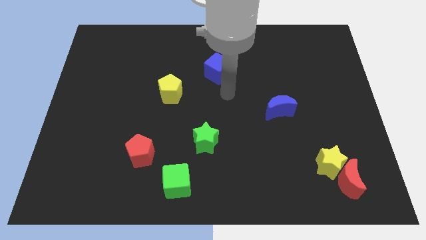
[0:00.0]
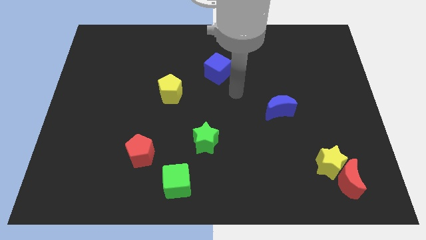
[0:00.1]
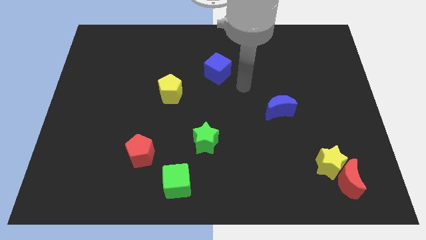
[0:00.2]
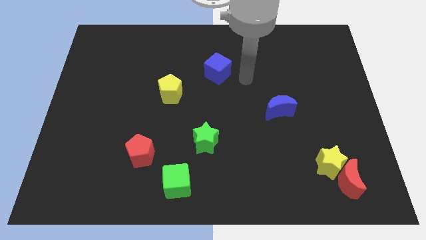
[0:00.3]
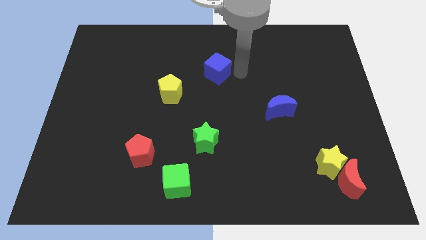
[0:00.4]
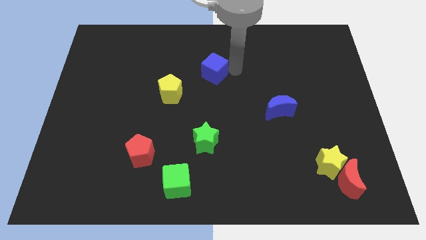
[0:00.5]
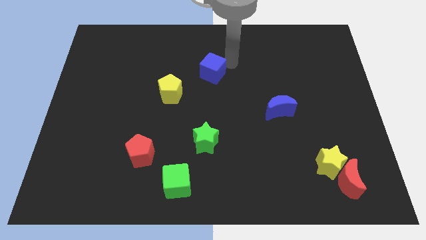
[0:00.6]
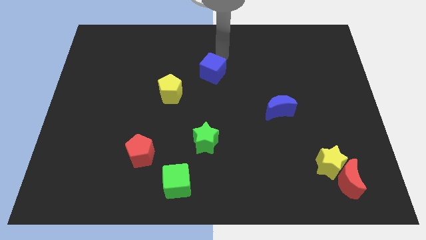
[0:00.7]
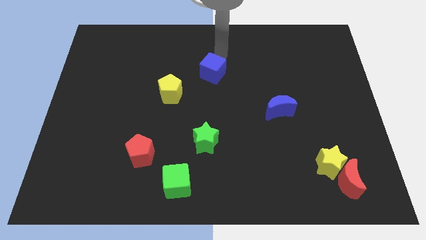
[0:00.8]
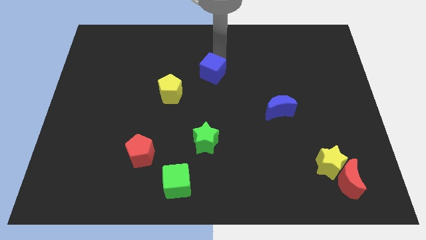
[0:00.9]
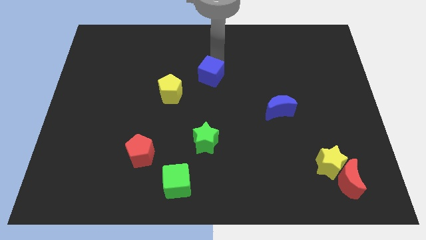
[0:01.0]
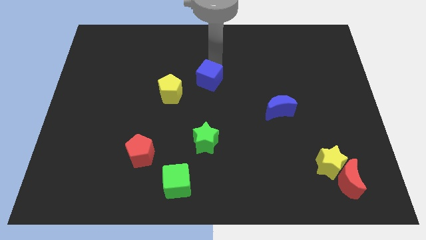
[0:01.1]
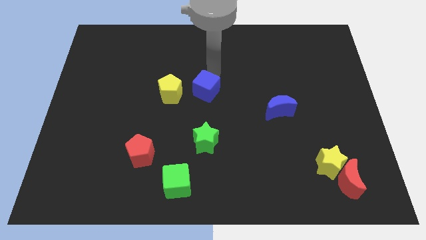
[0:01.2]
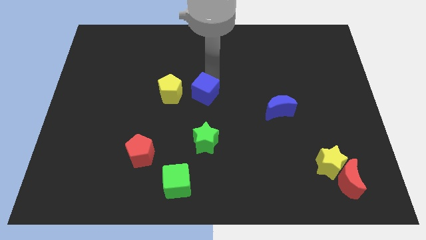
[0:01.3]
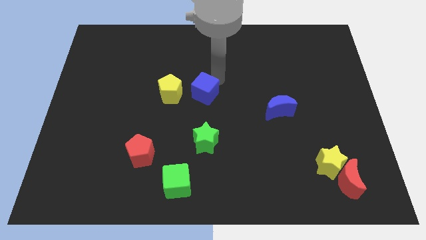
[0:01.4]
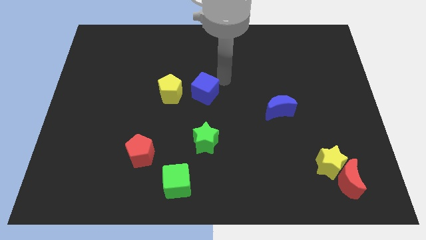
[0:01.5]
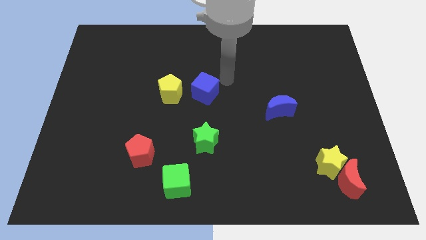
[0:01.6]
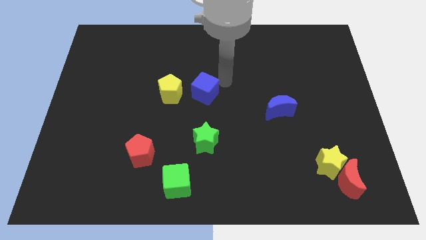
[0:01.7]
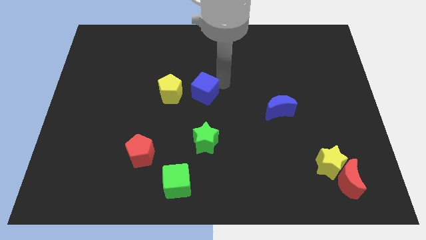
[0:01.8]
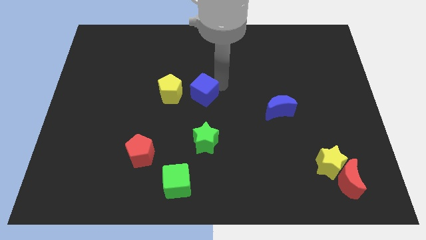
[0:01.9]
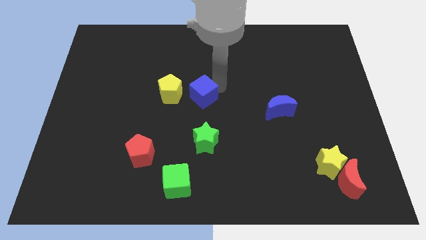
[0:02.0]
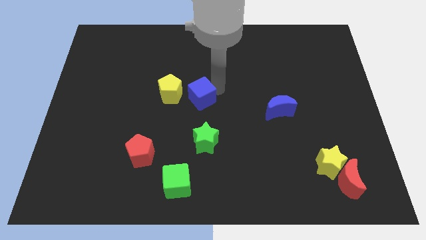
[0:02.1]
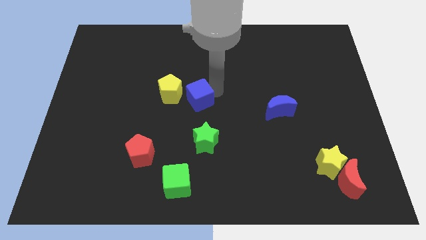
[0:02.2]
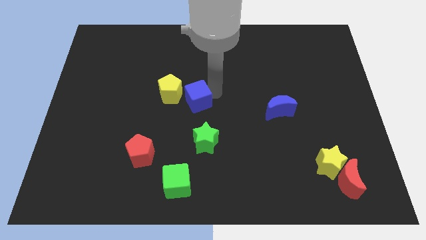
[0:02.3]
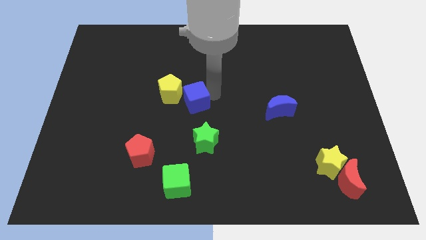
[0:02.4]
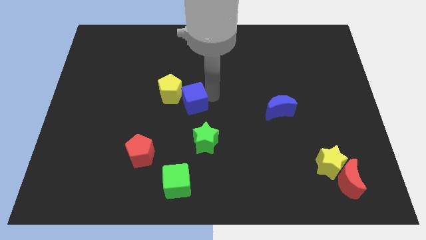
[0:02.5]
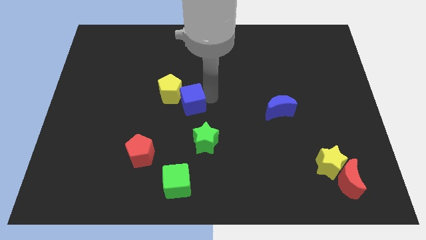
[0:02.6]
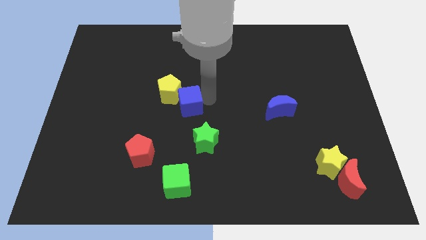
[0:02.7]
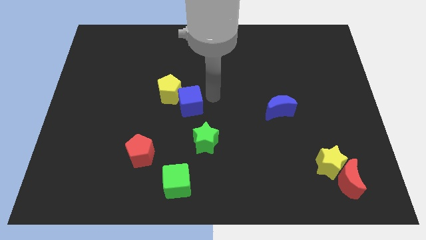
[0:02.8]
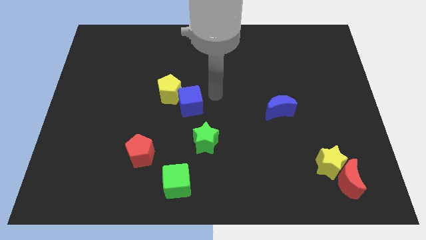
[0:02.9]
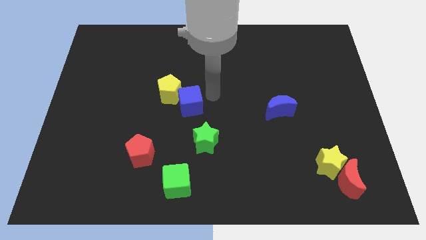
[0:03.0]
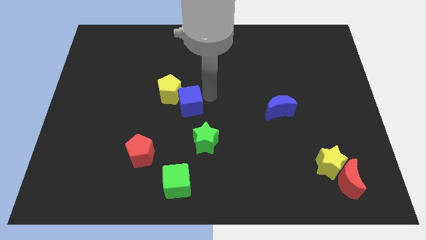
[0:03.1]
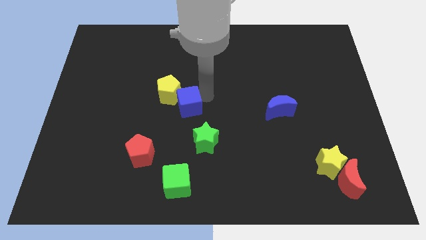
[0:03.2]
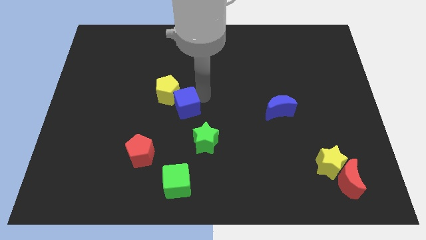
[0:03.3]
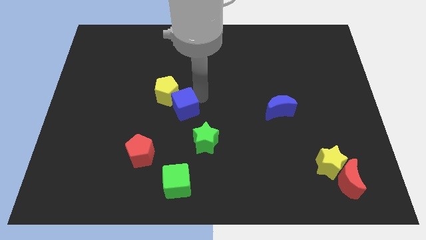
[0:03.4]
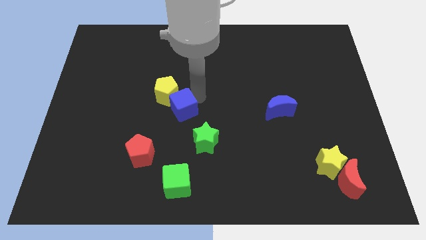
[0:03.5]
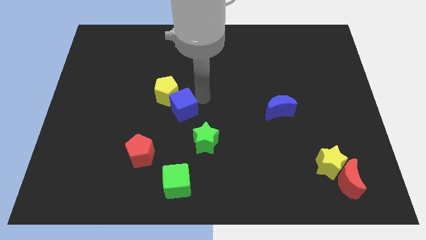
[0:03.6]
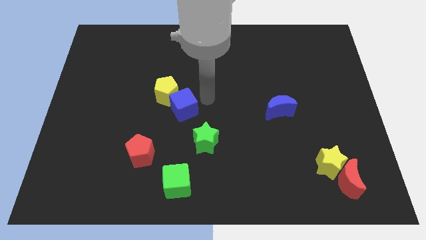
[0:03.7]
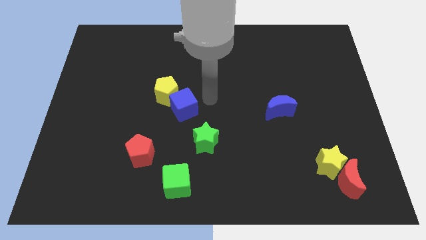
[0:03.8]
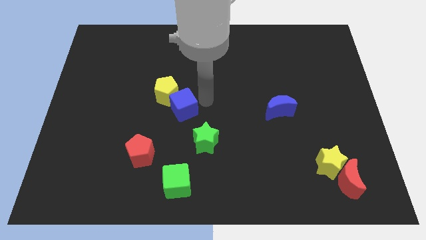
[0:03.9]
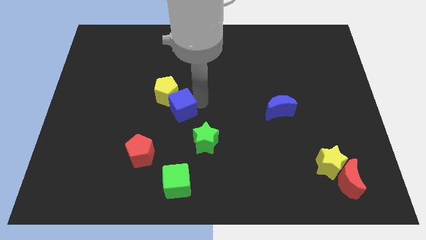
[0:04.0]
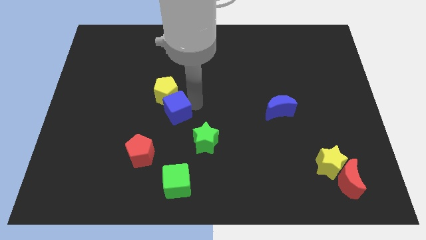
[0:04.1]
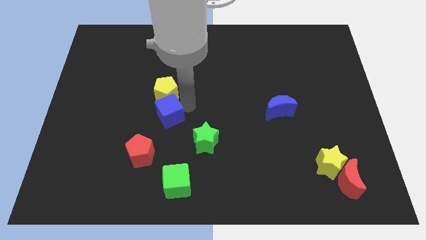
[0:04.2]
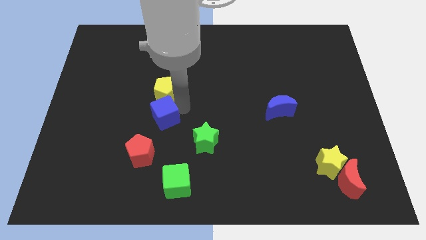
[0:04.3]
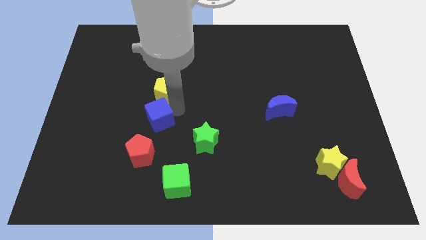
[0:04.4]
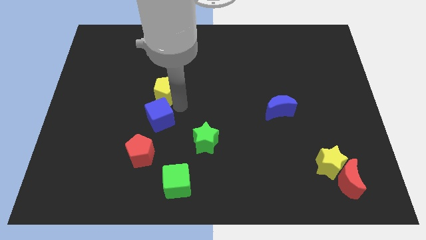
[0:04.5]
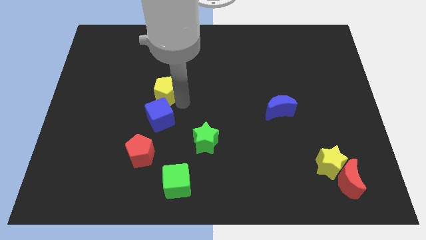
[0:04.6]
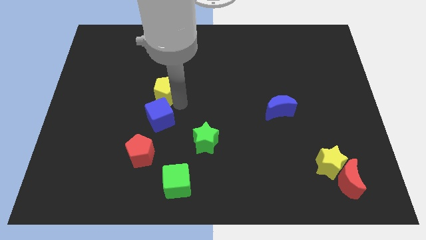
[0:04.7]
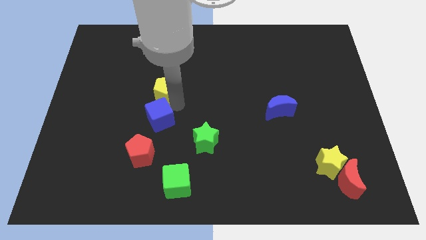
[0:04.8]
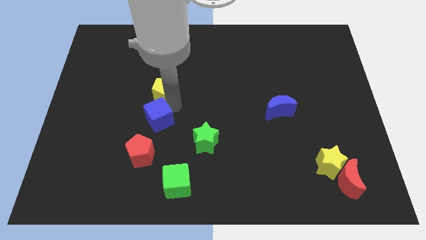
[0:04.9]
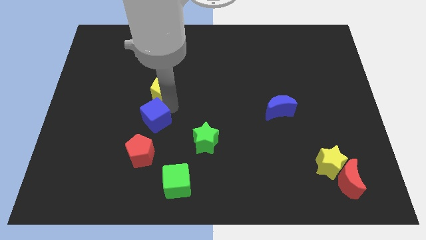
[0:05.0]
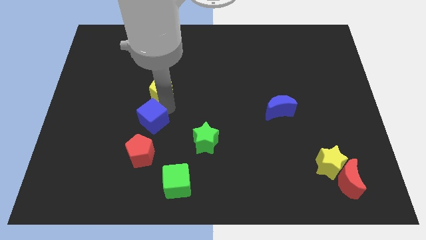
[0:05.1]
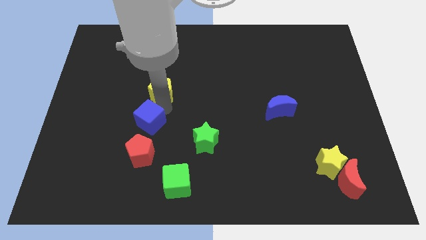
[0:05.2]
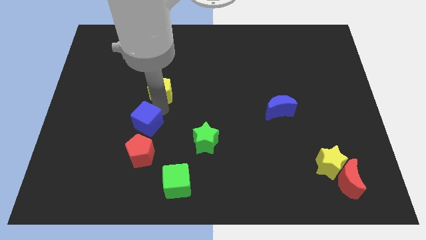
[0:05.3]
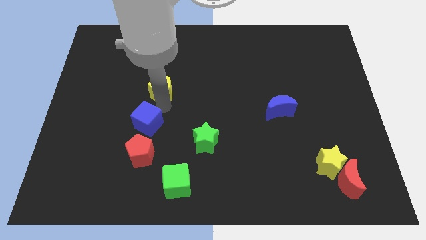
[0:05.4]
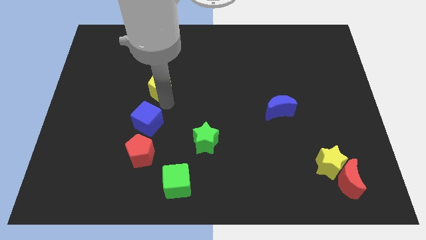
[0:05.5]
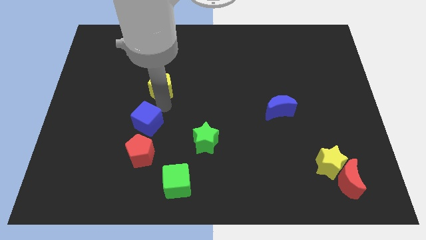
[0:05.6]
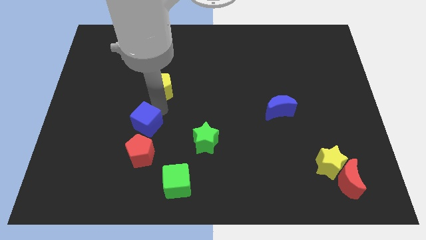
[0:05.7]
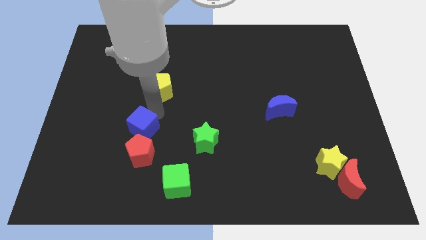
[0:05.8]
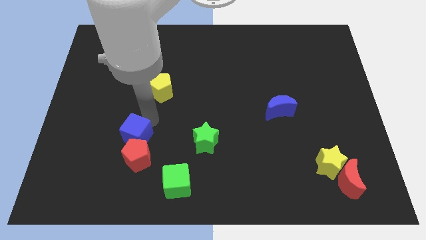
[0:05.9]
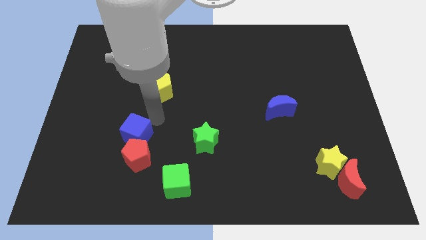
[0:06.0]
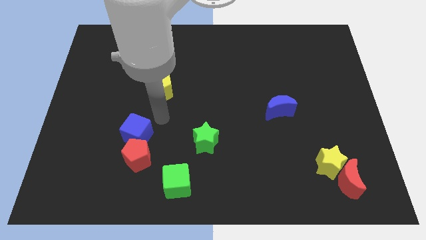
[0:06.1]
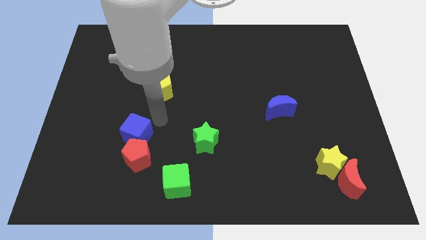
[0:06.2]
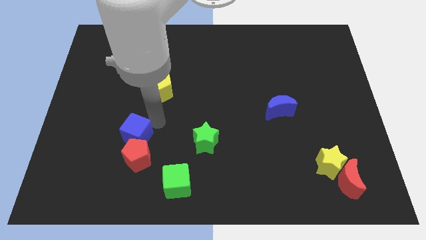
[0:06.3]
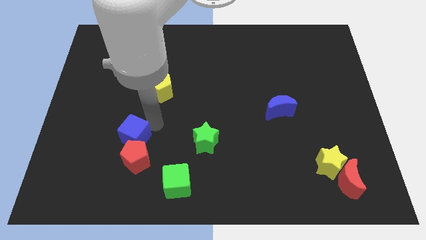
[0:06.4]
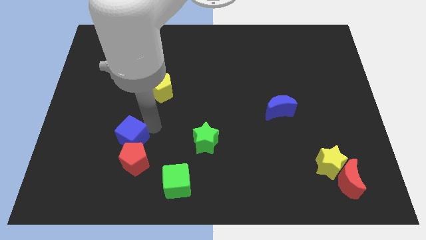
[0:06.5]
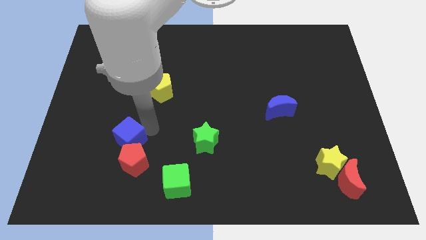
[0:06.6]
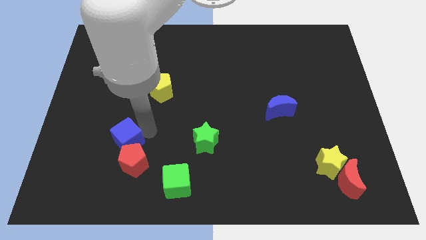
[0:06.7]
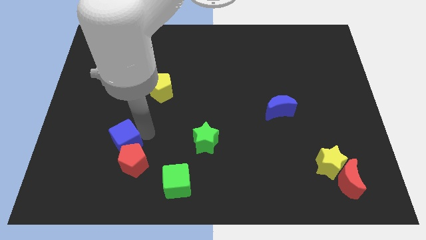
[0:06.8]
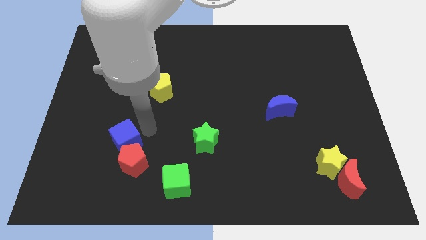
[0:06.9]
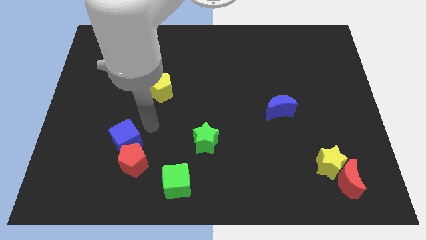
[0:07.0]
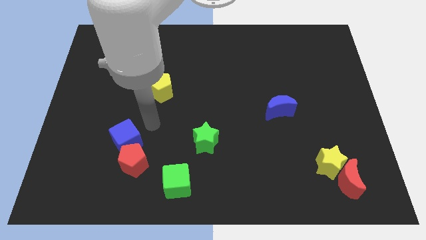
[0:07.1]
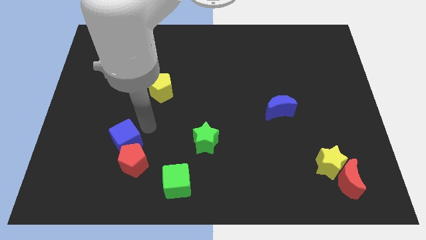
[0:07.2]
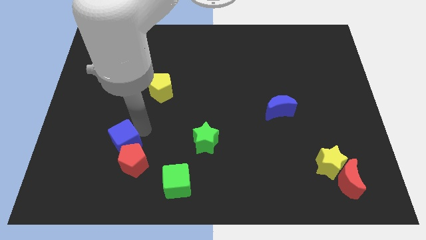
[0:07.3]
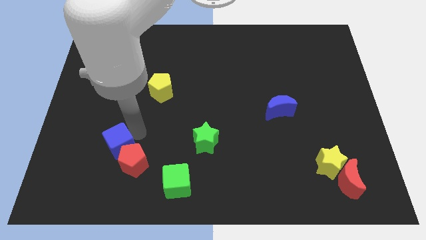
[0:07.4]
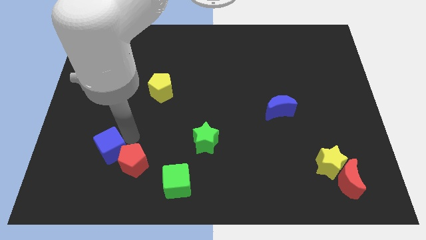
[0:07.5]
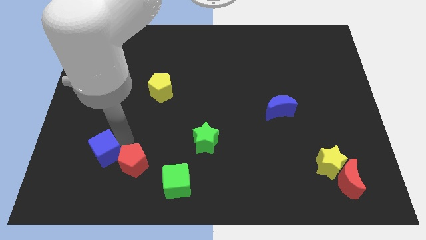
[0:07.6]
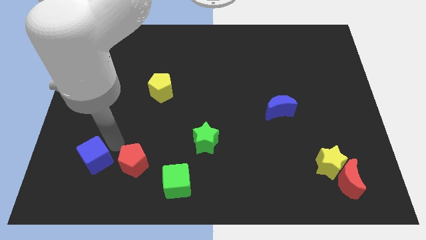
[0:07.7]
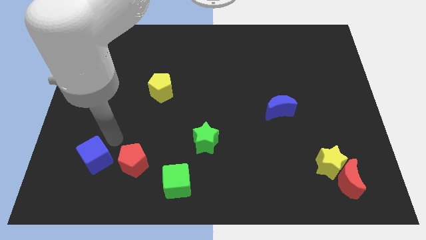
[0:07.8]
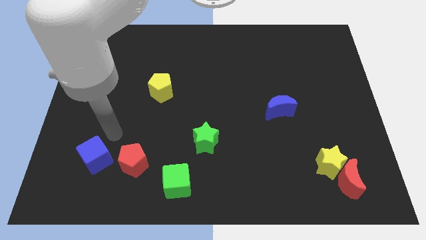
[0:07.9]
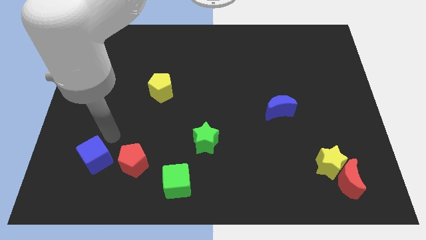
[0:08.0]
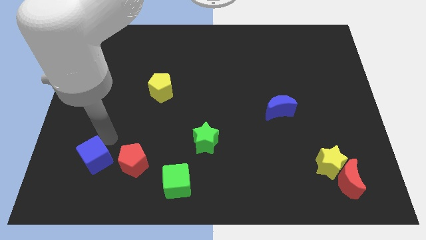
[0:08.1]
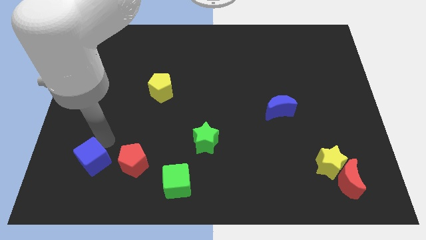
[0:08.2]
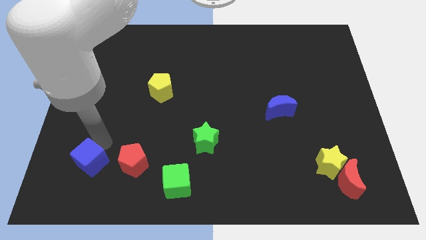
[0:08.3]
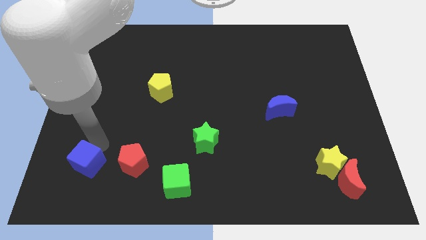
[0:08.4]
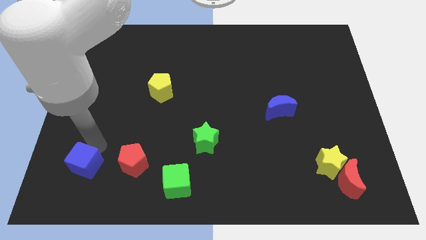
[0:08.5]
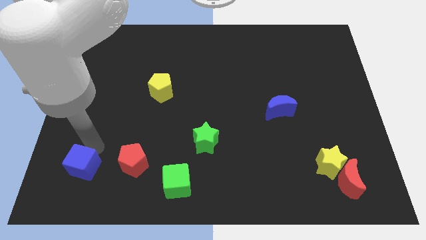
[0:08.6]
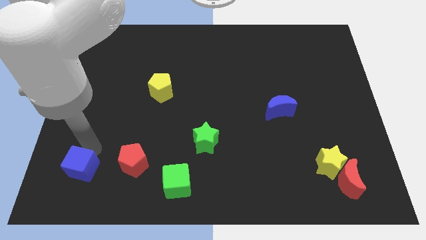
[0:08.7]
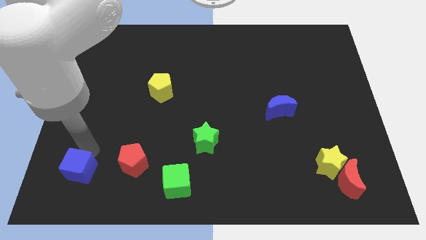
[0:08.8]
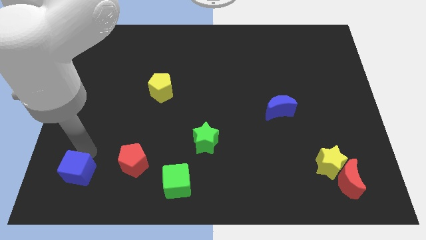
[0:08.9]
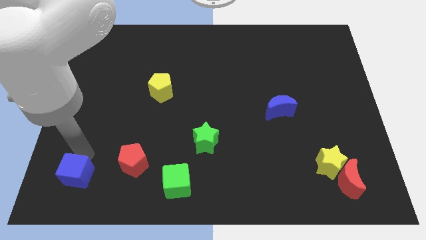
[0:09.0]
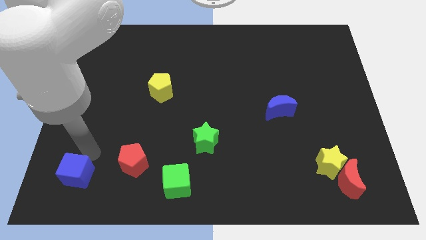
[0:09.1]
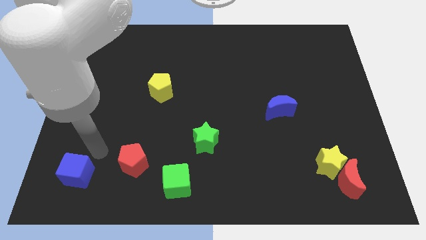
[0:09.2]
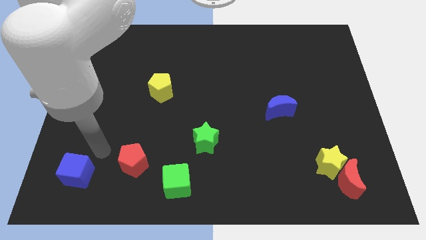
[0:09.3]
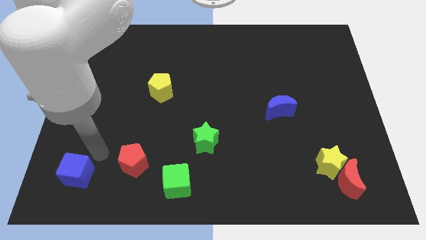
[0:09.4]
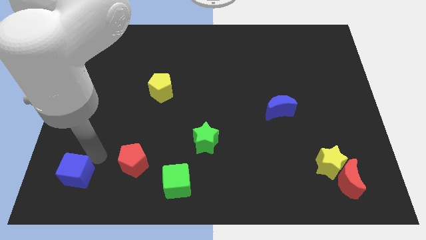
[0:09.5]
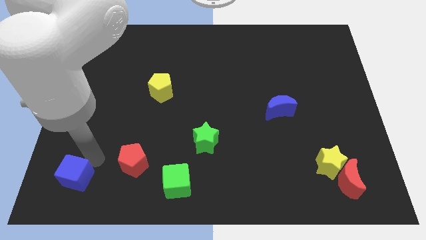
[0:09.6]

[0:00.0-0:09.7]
push the blue cube to the bottom left
